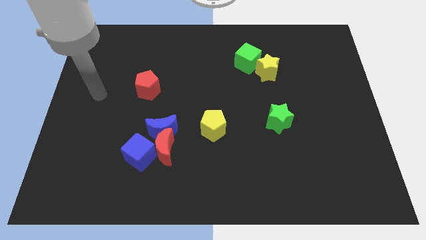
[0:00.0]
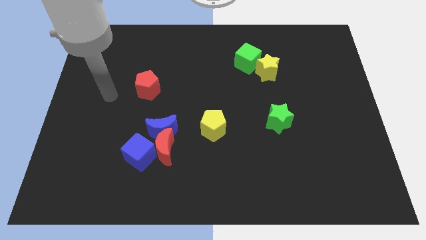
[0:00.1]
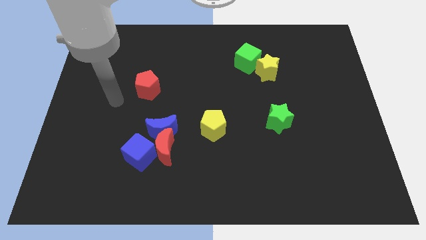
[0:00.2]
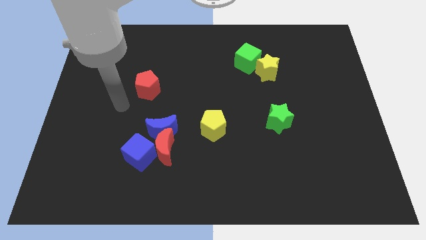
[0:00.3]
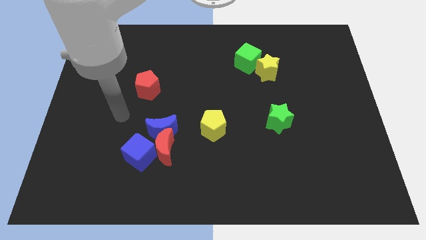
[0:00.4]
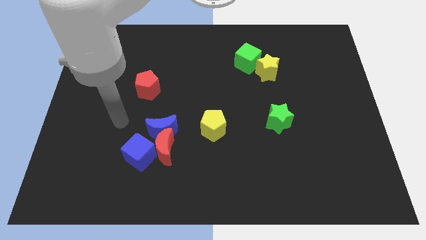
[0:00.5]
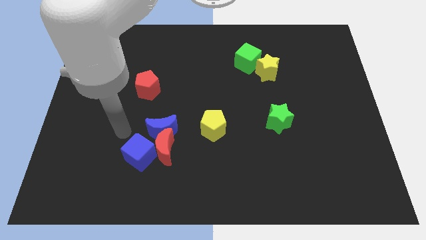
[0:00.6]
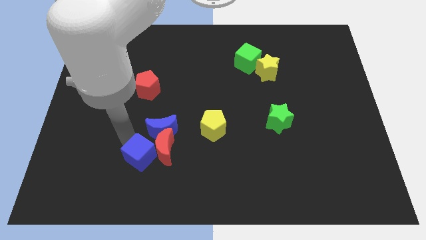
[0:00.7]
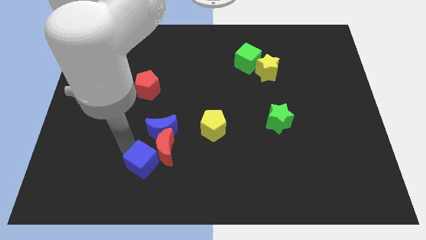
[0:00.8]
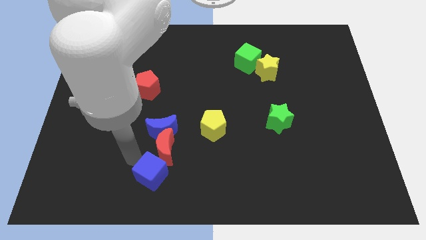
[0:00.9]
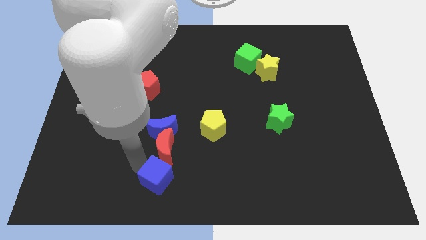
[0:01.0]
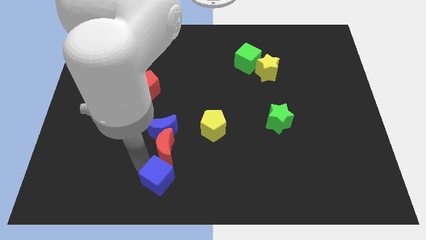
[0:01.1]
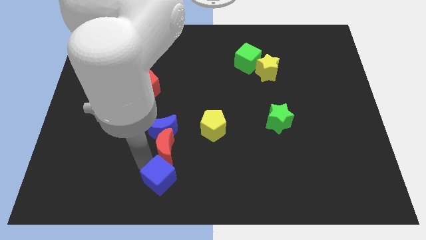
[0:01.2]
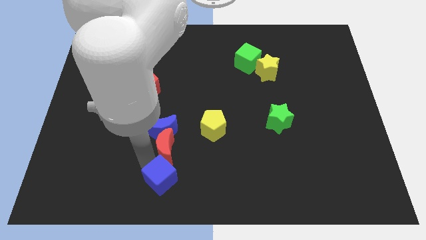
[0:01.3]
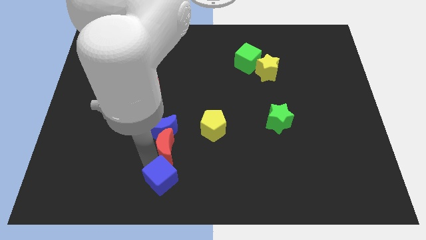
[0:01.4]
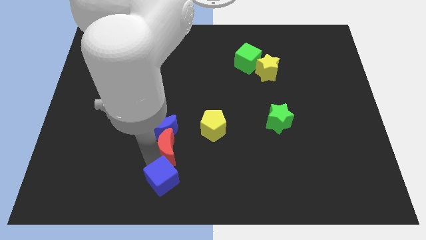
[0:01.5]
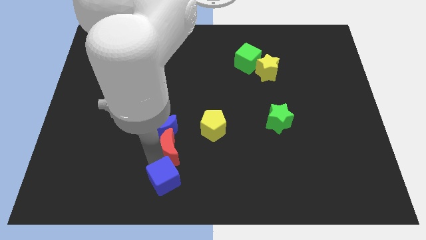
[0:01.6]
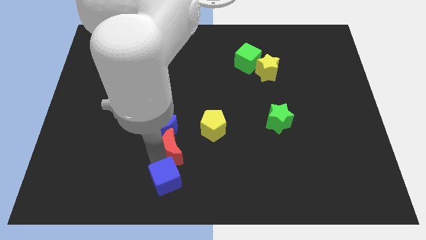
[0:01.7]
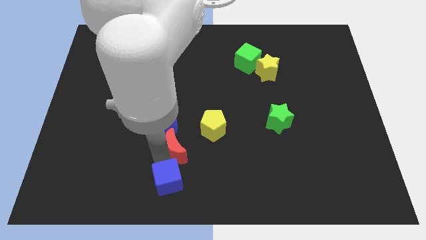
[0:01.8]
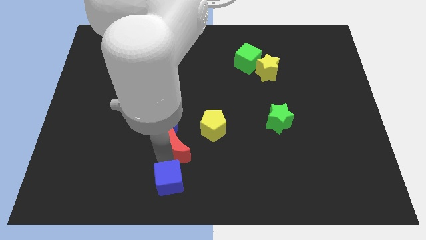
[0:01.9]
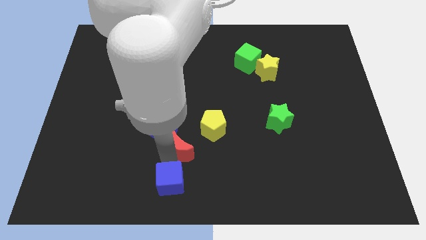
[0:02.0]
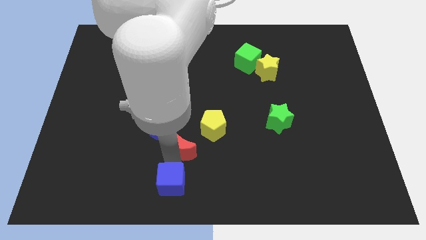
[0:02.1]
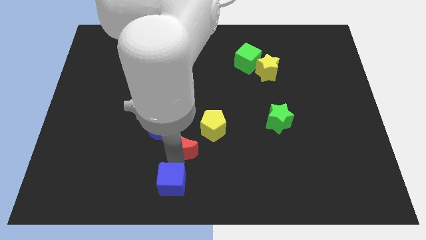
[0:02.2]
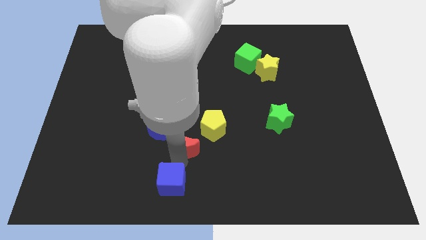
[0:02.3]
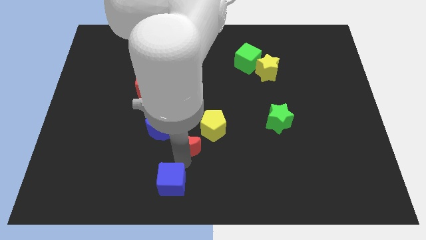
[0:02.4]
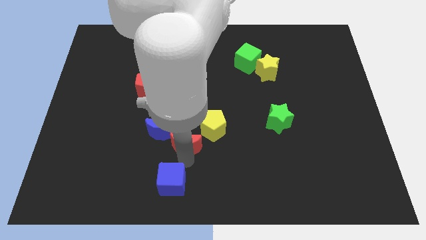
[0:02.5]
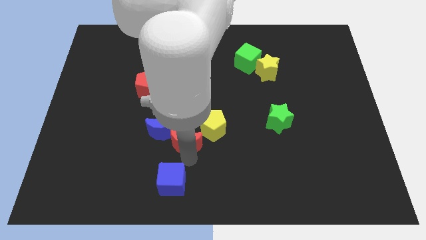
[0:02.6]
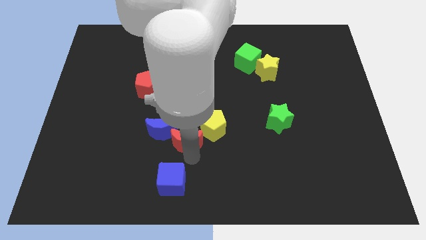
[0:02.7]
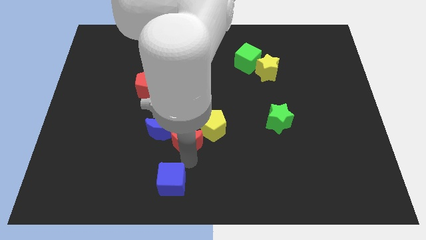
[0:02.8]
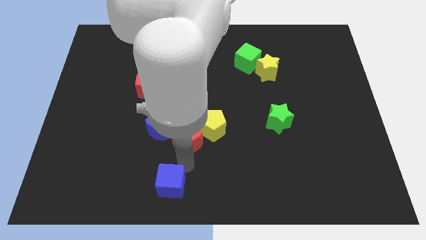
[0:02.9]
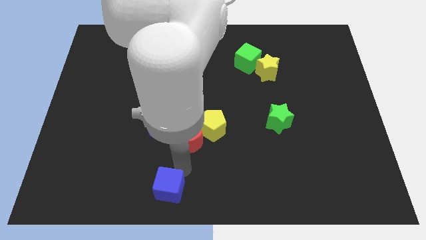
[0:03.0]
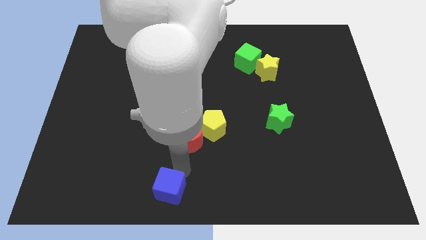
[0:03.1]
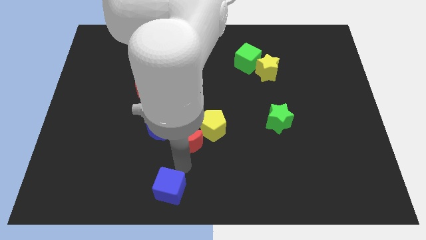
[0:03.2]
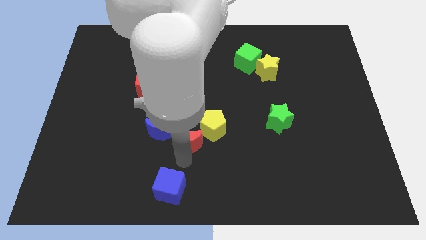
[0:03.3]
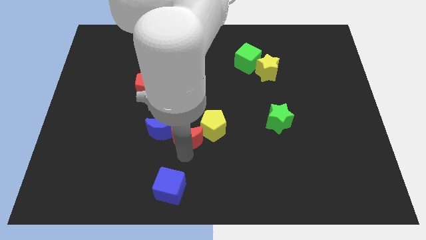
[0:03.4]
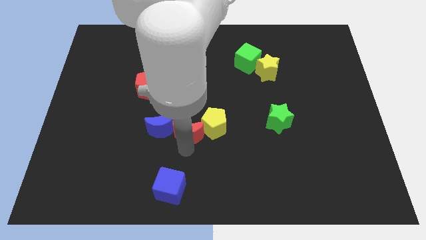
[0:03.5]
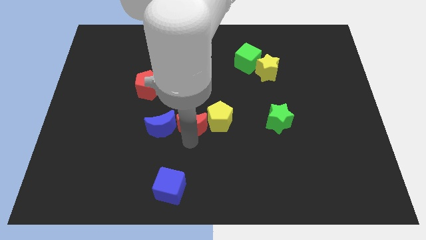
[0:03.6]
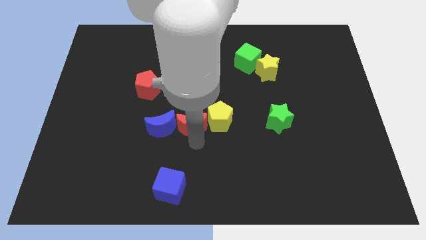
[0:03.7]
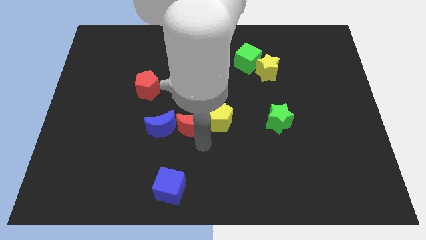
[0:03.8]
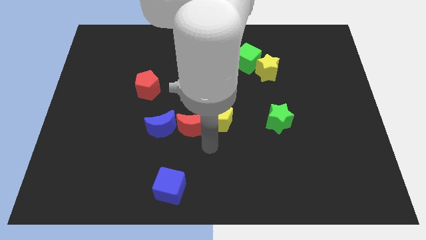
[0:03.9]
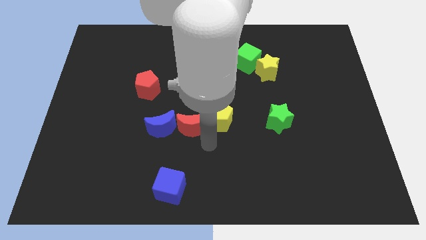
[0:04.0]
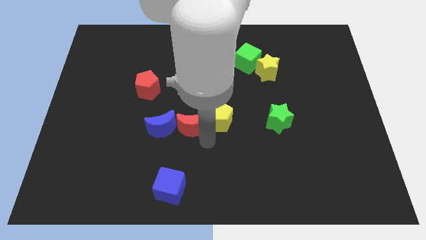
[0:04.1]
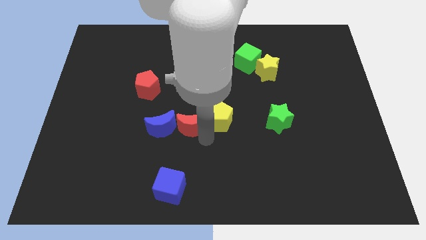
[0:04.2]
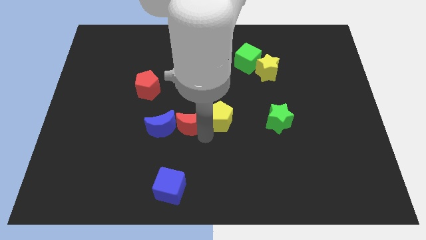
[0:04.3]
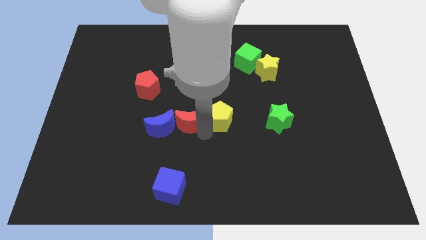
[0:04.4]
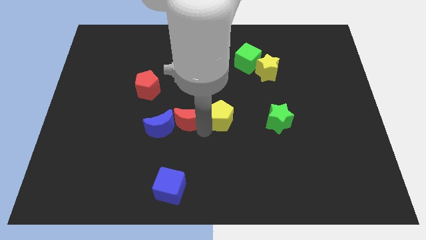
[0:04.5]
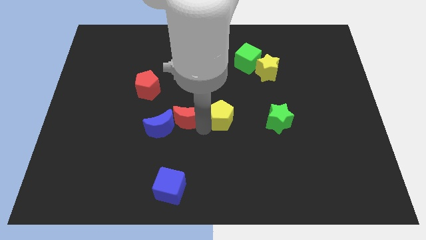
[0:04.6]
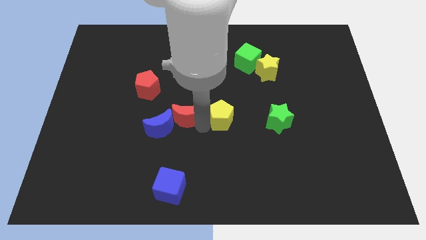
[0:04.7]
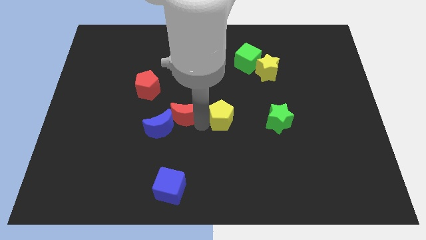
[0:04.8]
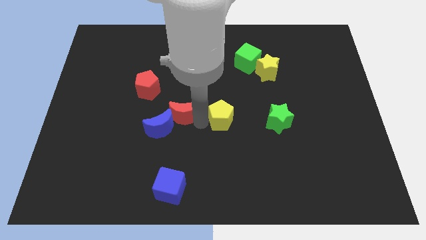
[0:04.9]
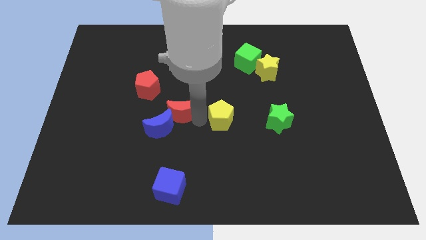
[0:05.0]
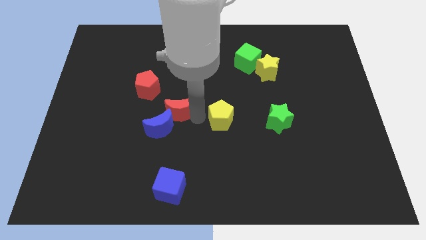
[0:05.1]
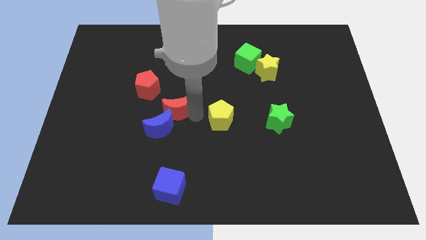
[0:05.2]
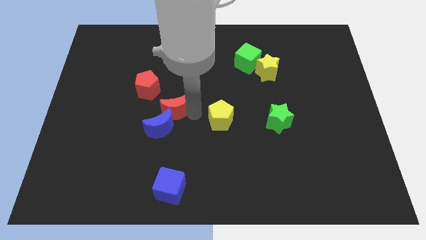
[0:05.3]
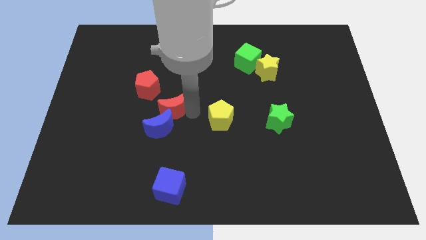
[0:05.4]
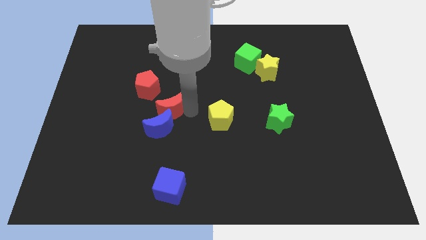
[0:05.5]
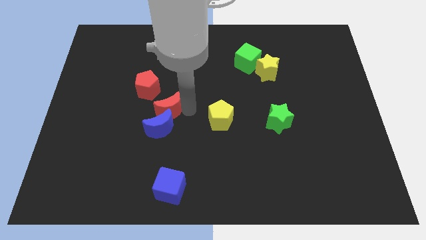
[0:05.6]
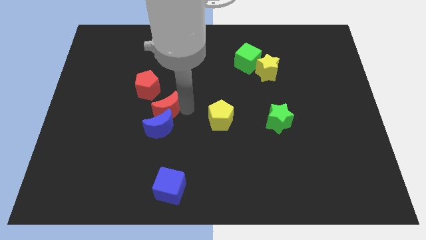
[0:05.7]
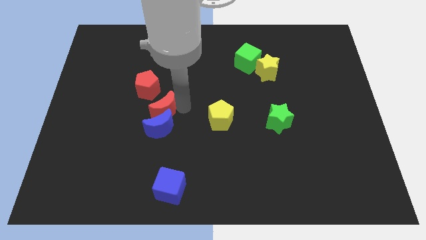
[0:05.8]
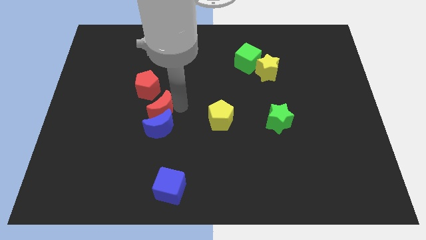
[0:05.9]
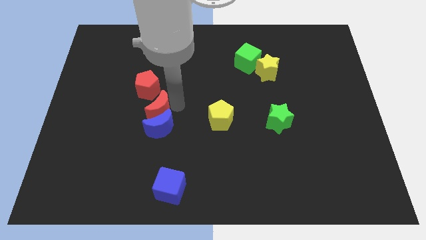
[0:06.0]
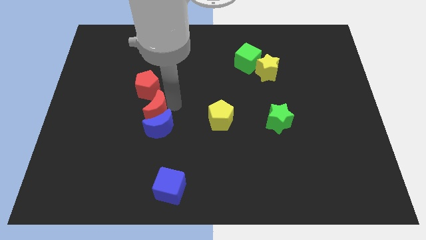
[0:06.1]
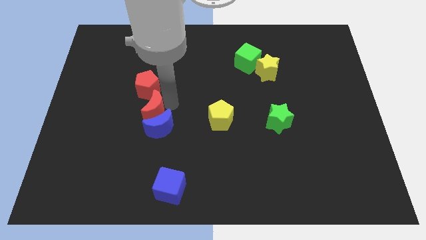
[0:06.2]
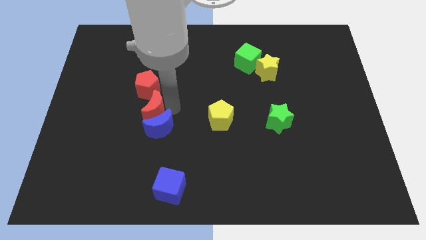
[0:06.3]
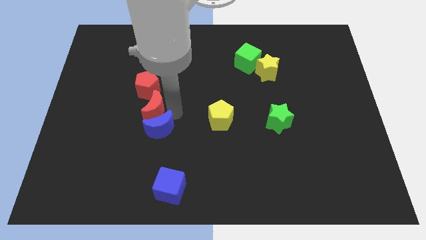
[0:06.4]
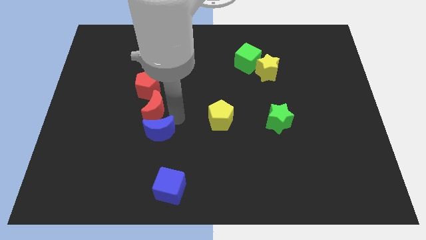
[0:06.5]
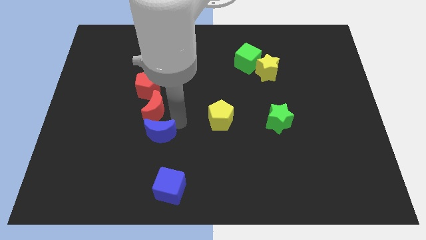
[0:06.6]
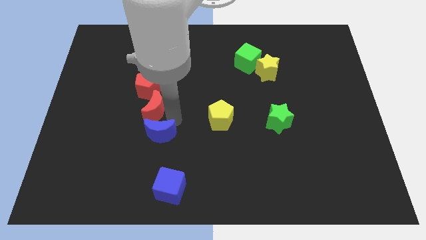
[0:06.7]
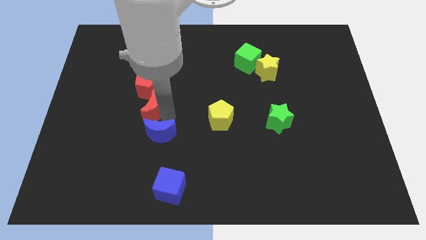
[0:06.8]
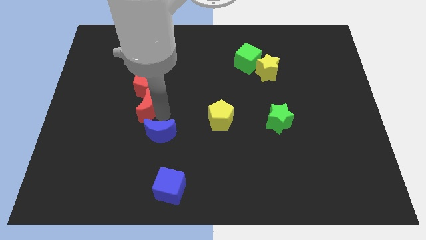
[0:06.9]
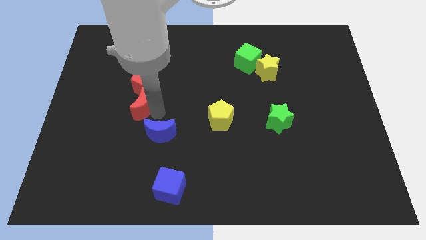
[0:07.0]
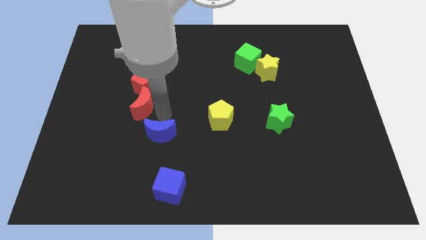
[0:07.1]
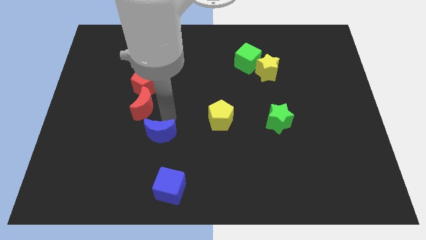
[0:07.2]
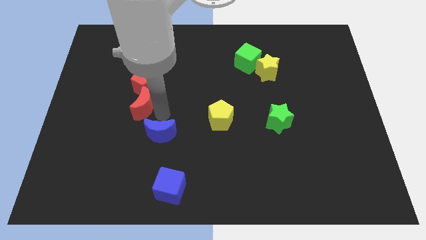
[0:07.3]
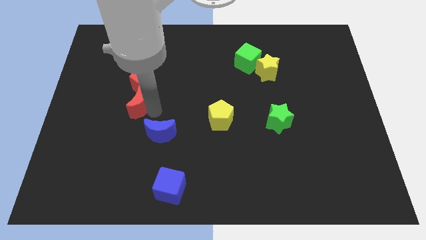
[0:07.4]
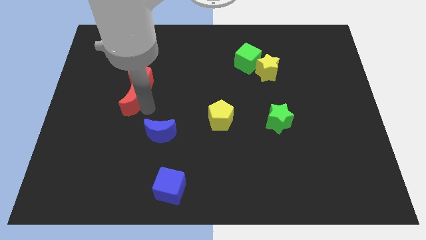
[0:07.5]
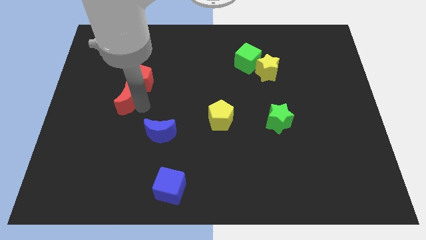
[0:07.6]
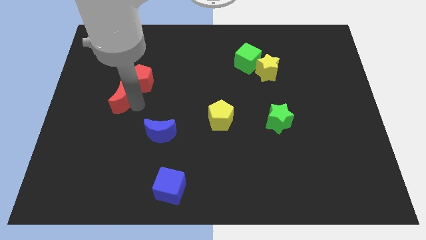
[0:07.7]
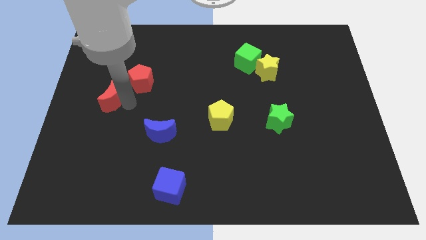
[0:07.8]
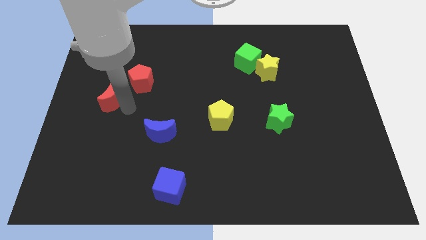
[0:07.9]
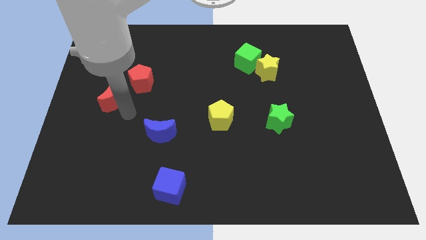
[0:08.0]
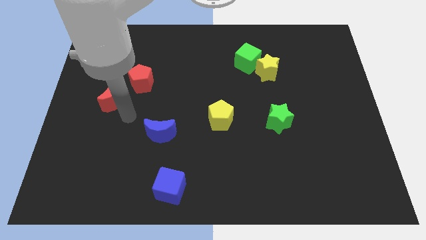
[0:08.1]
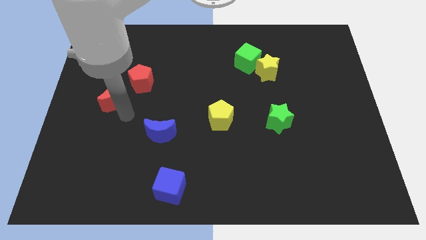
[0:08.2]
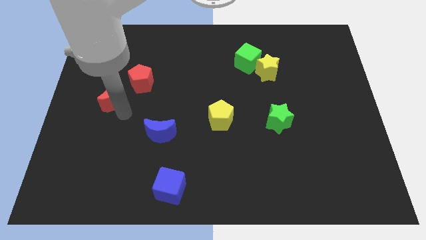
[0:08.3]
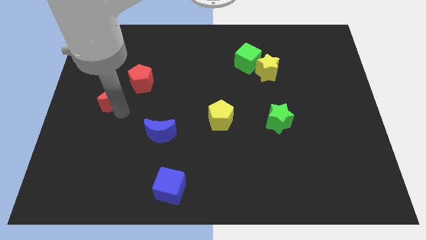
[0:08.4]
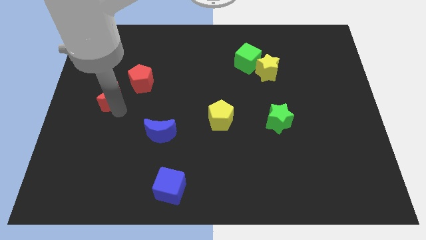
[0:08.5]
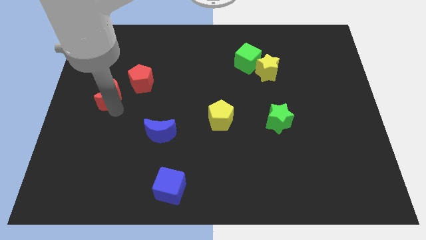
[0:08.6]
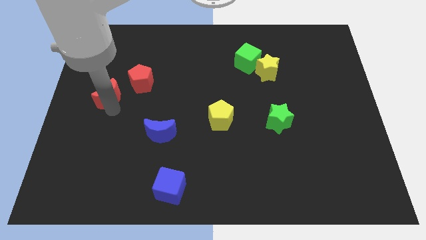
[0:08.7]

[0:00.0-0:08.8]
slide the red moon just left of the red pentagon
